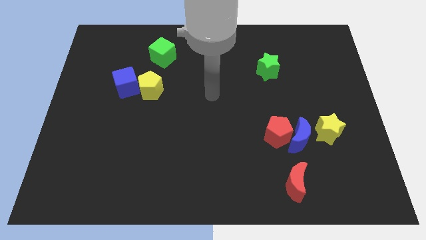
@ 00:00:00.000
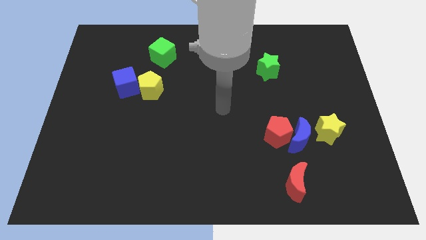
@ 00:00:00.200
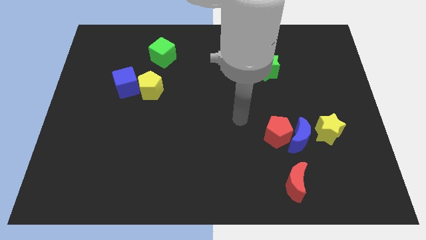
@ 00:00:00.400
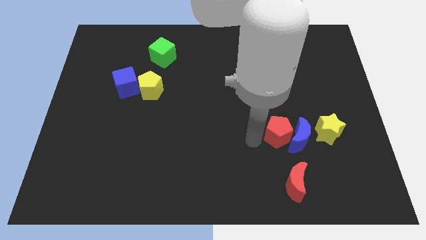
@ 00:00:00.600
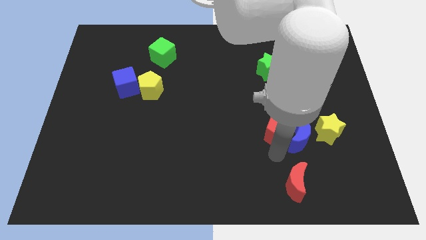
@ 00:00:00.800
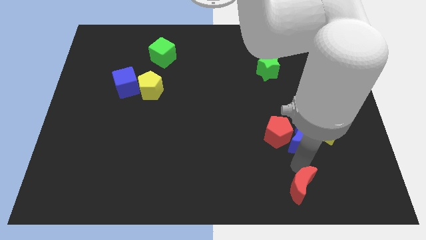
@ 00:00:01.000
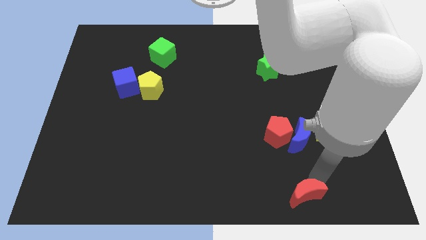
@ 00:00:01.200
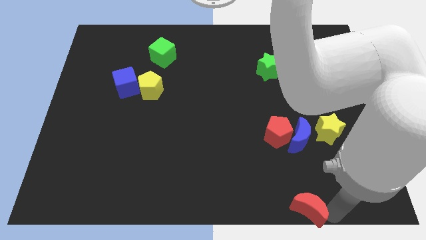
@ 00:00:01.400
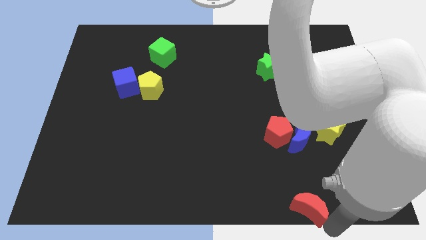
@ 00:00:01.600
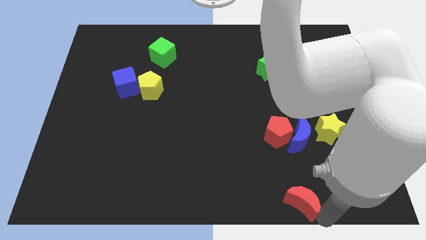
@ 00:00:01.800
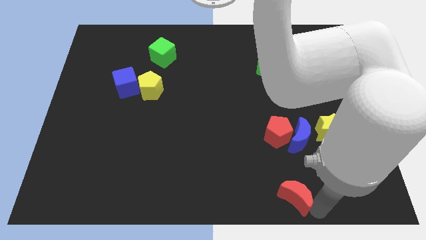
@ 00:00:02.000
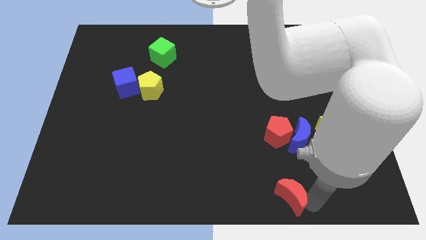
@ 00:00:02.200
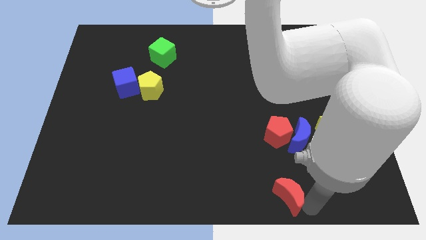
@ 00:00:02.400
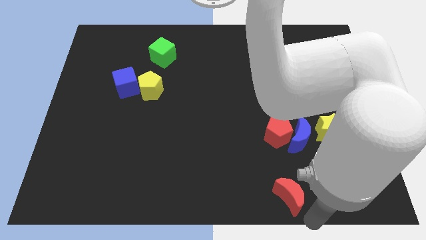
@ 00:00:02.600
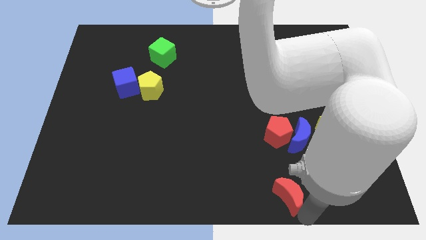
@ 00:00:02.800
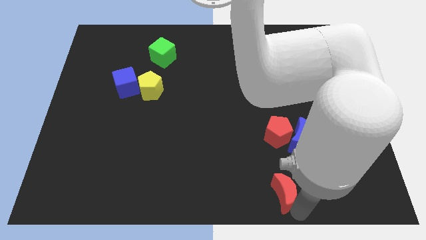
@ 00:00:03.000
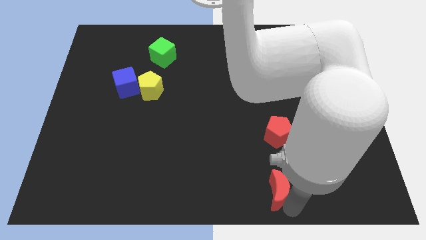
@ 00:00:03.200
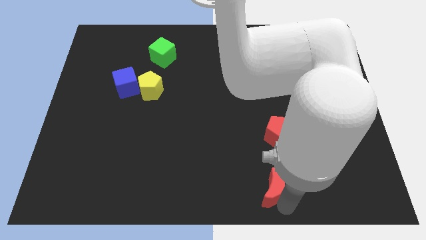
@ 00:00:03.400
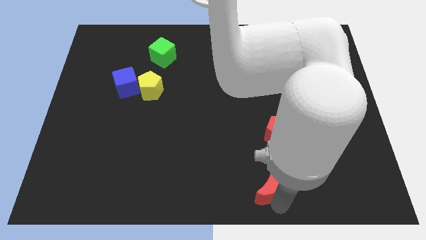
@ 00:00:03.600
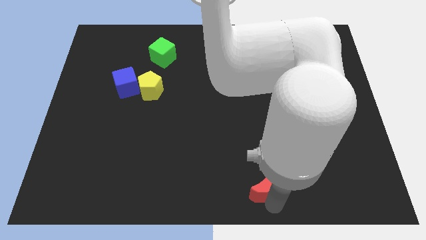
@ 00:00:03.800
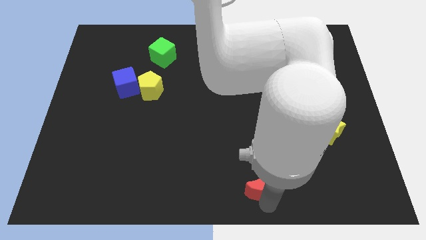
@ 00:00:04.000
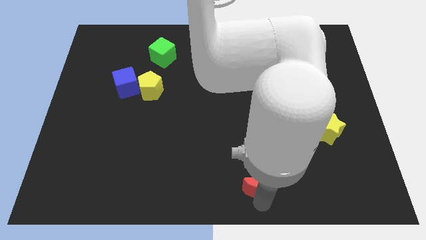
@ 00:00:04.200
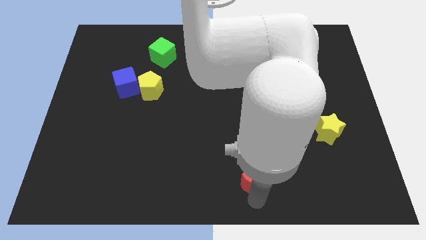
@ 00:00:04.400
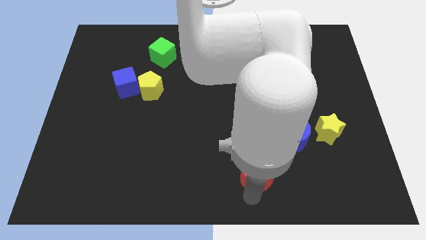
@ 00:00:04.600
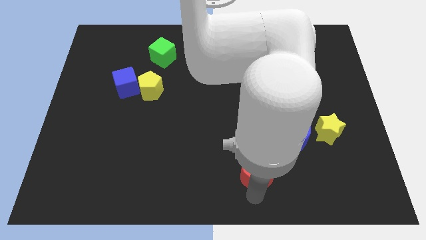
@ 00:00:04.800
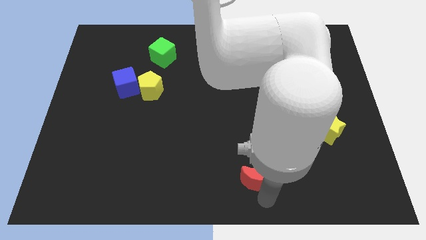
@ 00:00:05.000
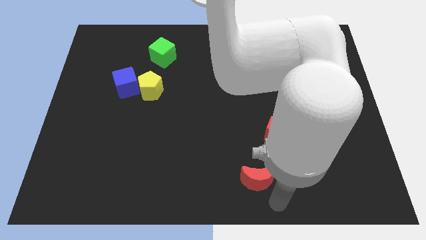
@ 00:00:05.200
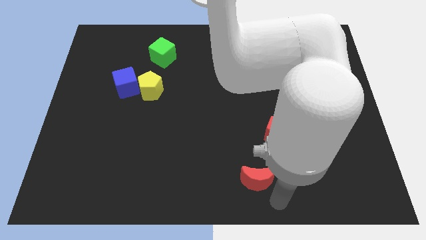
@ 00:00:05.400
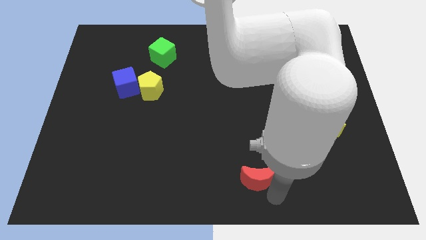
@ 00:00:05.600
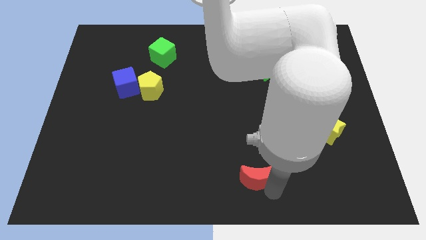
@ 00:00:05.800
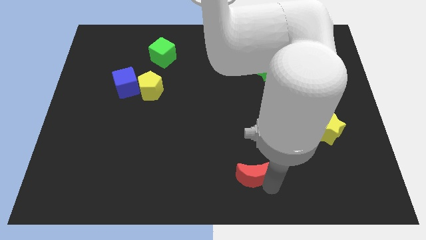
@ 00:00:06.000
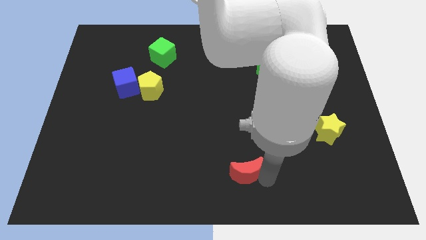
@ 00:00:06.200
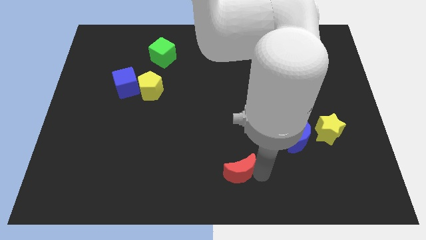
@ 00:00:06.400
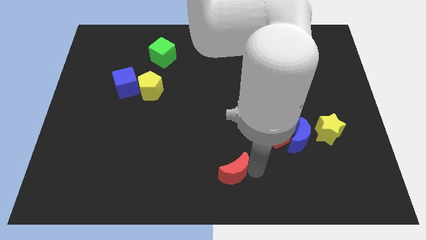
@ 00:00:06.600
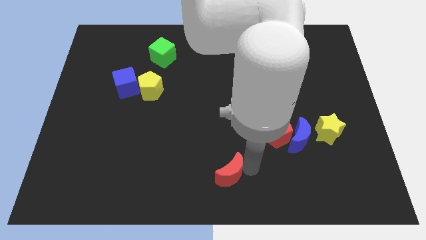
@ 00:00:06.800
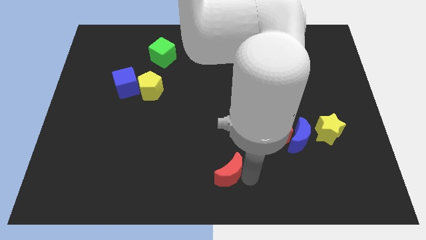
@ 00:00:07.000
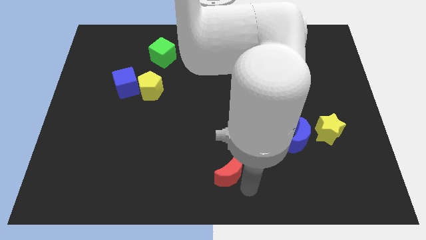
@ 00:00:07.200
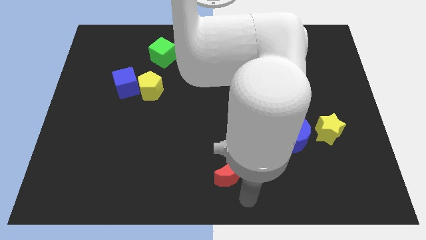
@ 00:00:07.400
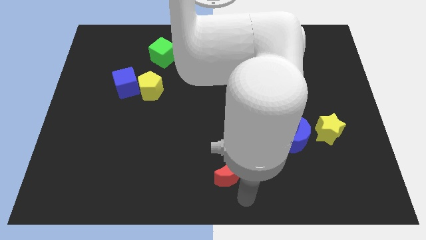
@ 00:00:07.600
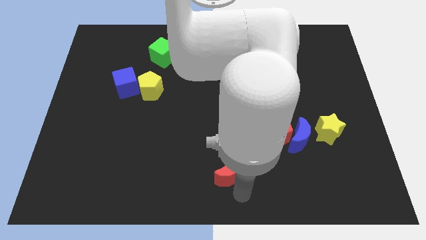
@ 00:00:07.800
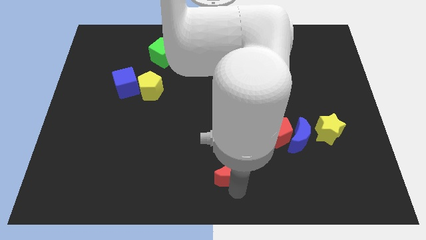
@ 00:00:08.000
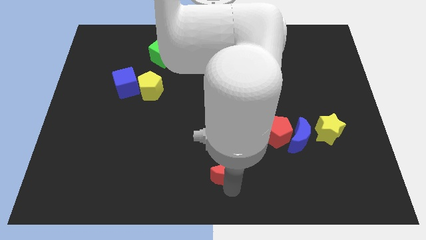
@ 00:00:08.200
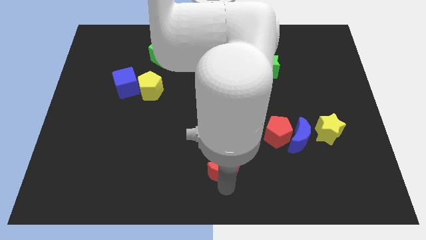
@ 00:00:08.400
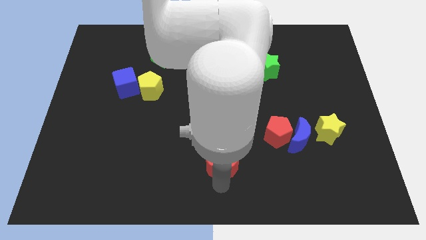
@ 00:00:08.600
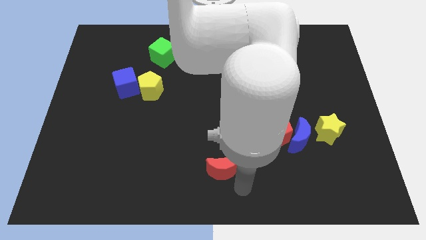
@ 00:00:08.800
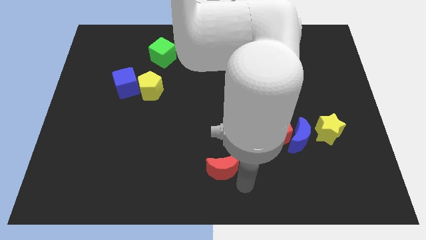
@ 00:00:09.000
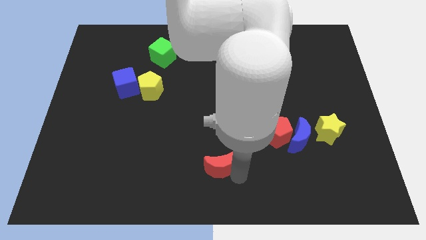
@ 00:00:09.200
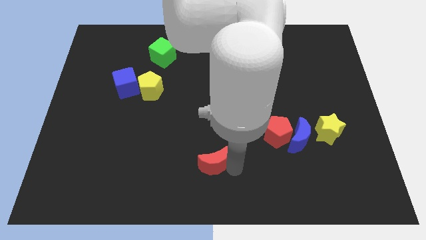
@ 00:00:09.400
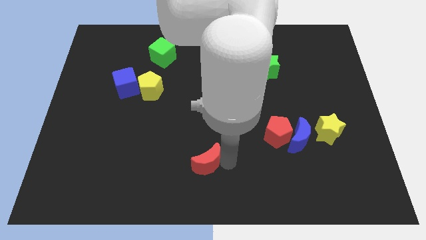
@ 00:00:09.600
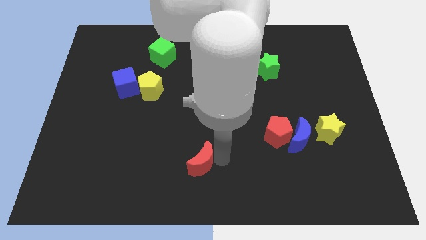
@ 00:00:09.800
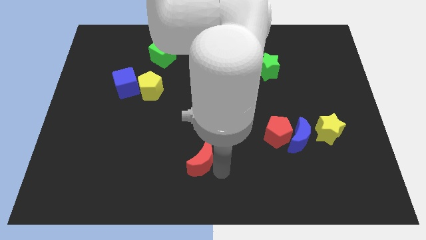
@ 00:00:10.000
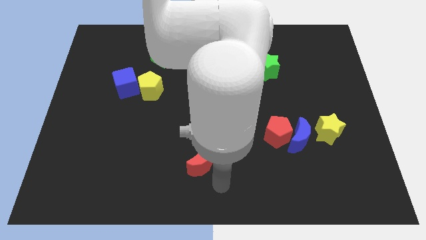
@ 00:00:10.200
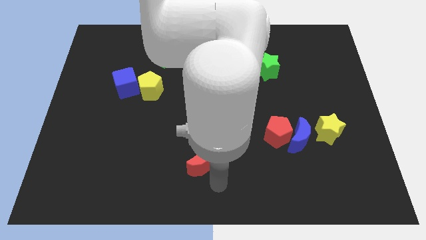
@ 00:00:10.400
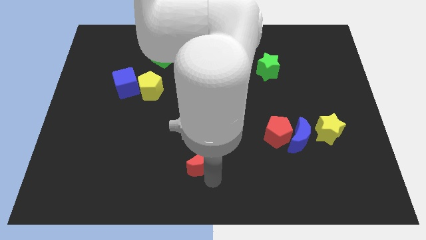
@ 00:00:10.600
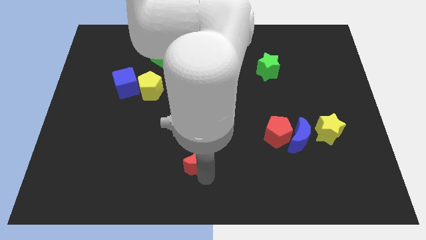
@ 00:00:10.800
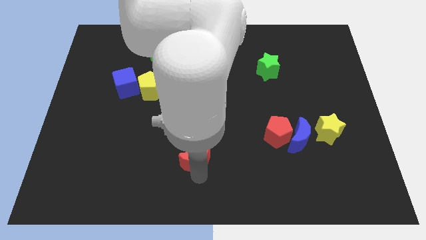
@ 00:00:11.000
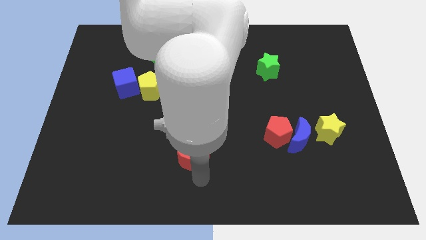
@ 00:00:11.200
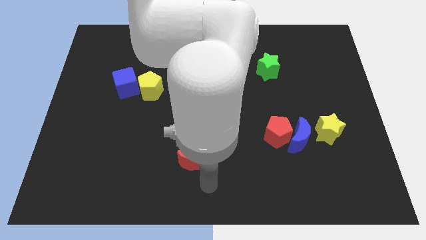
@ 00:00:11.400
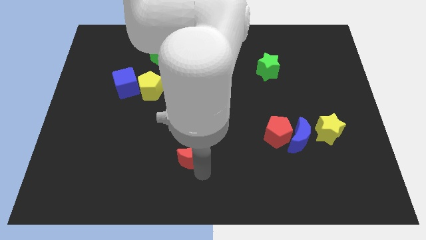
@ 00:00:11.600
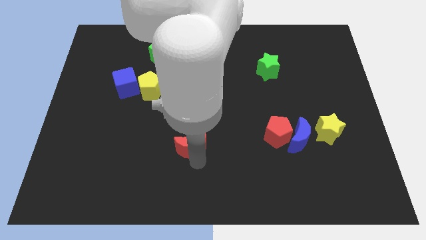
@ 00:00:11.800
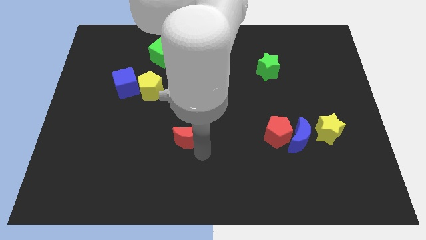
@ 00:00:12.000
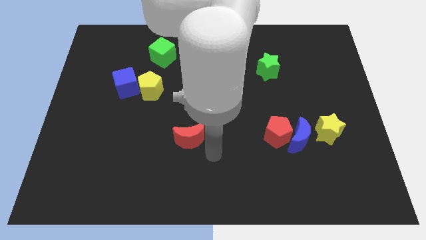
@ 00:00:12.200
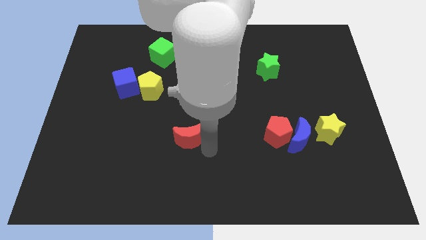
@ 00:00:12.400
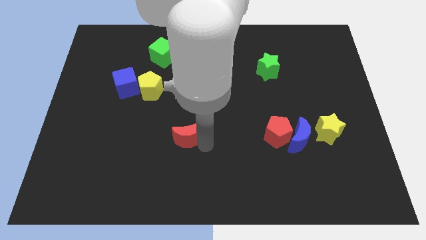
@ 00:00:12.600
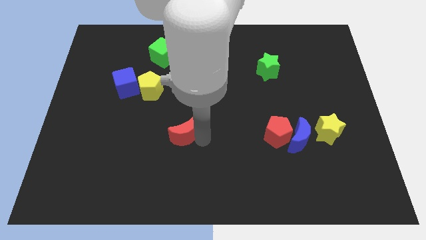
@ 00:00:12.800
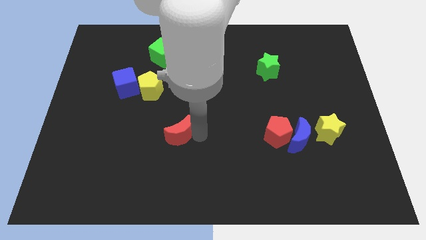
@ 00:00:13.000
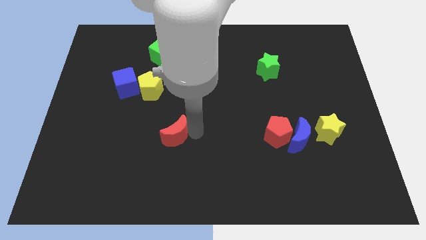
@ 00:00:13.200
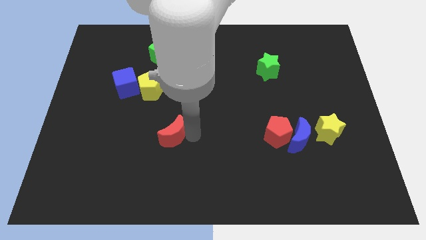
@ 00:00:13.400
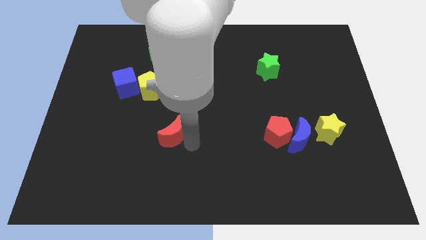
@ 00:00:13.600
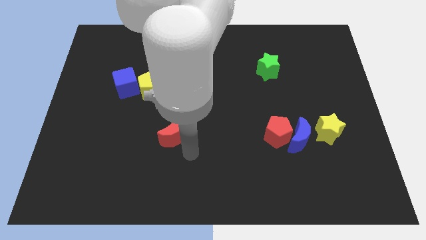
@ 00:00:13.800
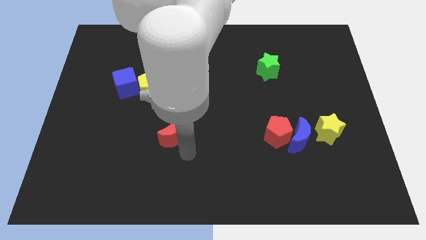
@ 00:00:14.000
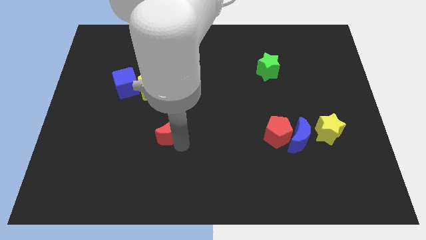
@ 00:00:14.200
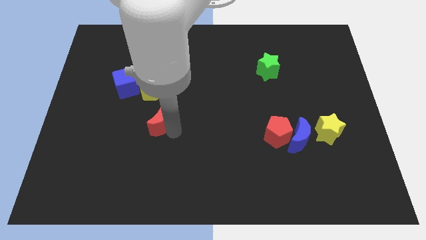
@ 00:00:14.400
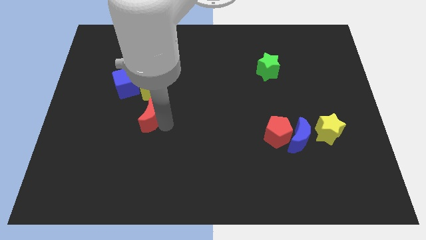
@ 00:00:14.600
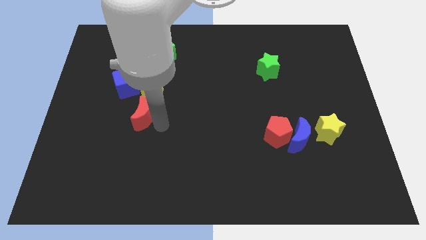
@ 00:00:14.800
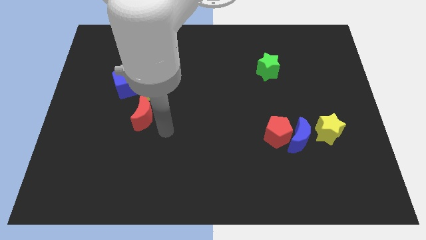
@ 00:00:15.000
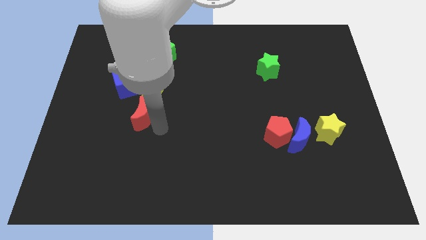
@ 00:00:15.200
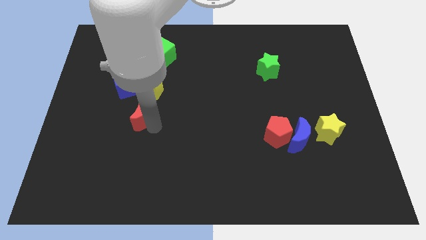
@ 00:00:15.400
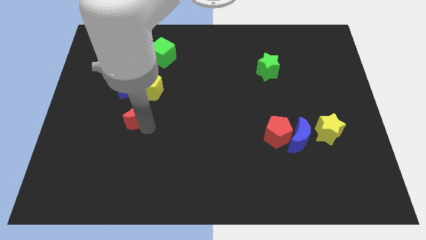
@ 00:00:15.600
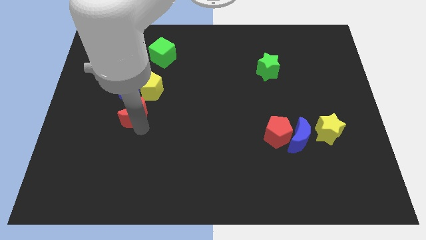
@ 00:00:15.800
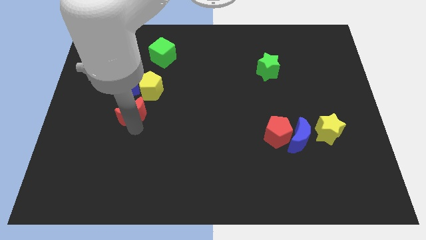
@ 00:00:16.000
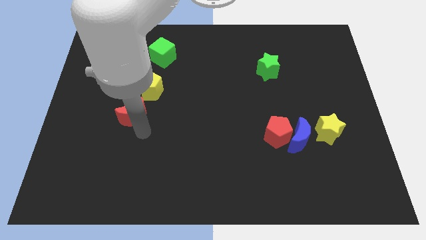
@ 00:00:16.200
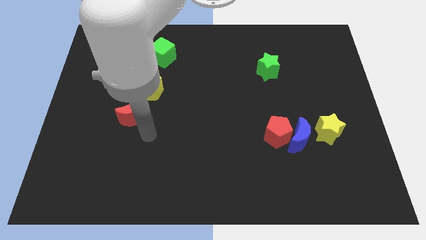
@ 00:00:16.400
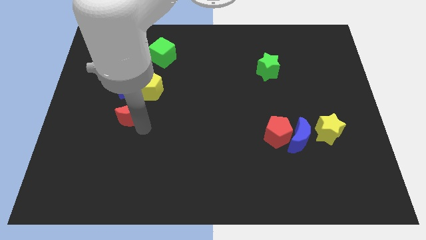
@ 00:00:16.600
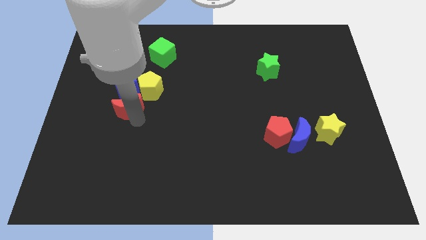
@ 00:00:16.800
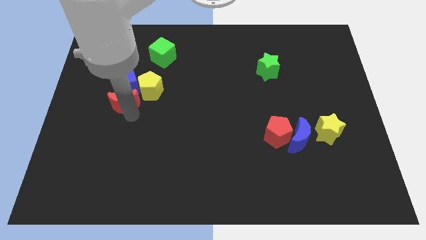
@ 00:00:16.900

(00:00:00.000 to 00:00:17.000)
move the red moon next to the blue cube

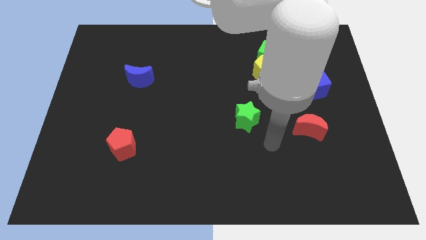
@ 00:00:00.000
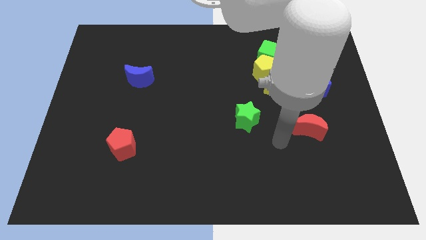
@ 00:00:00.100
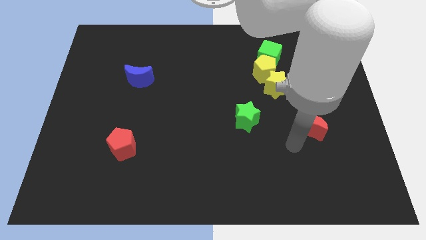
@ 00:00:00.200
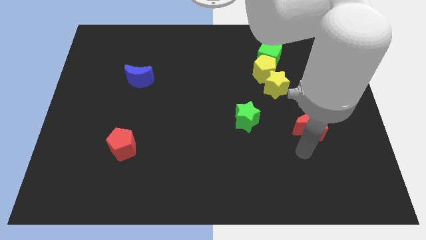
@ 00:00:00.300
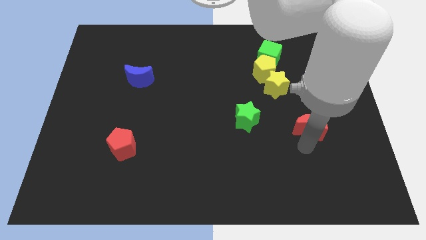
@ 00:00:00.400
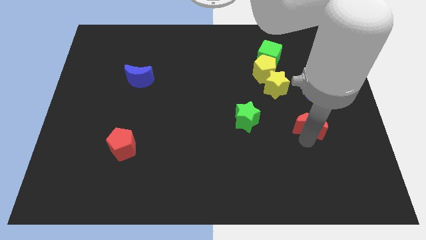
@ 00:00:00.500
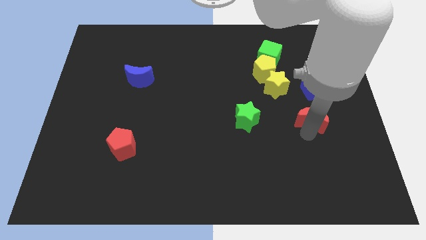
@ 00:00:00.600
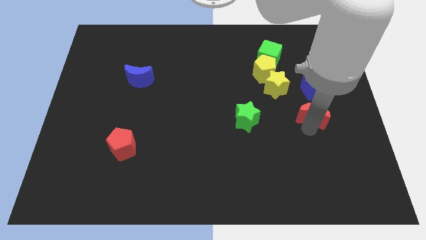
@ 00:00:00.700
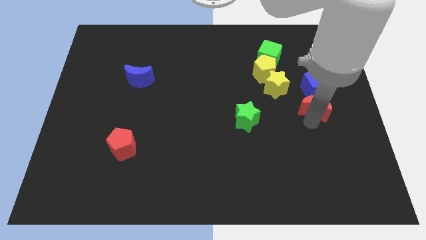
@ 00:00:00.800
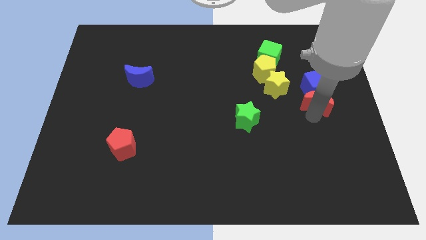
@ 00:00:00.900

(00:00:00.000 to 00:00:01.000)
put the red moon close to the blue cube
